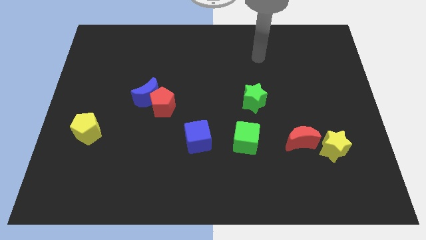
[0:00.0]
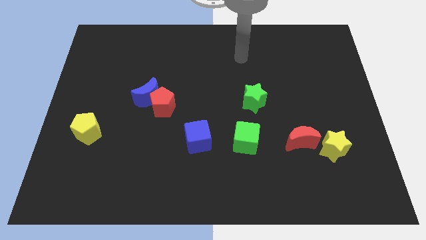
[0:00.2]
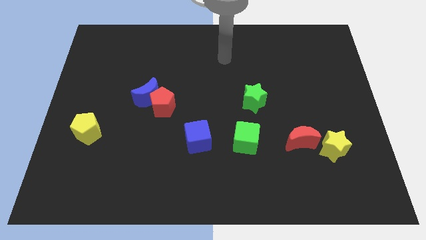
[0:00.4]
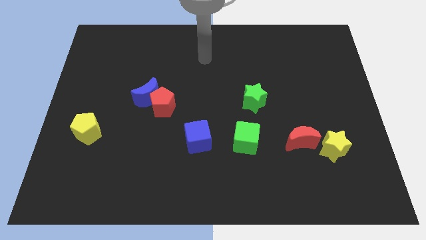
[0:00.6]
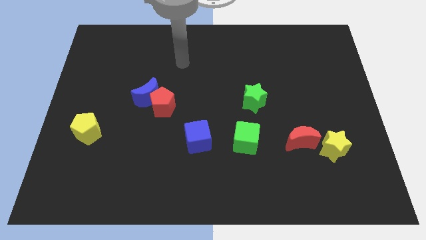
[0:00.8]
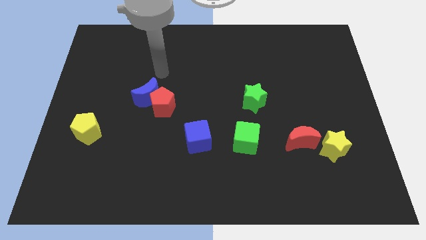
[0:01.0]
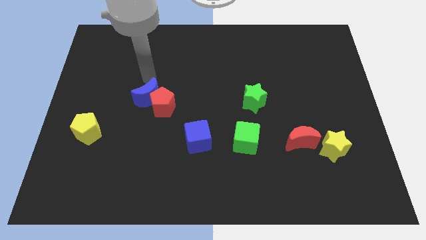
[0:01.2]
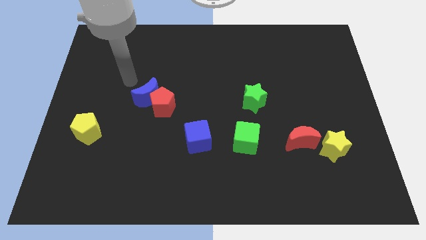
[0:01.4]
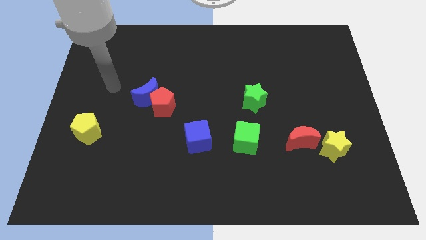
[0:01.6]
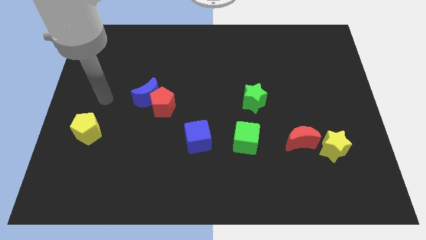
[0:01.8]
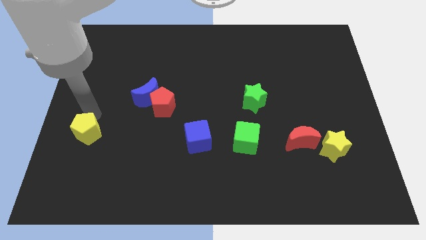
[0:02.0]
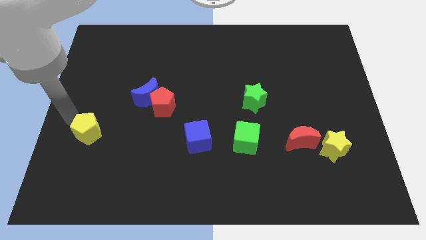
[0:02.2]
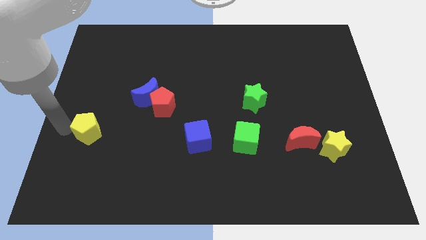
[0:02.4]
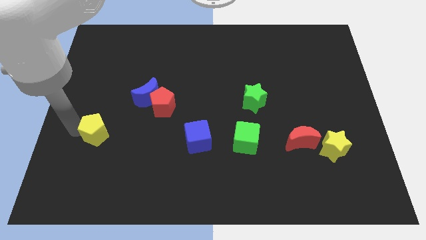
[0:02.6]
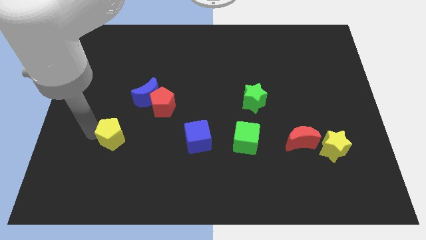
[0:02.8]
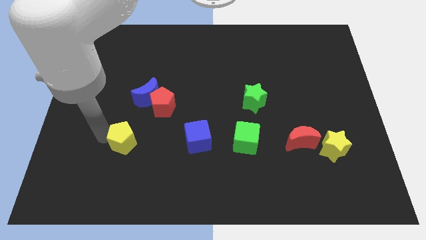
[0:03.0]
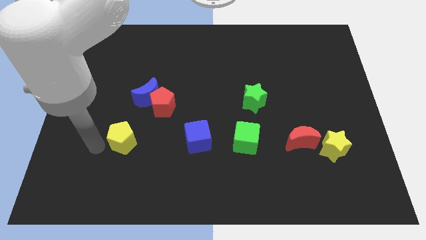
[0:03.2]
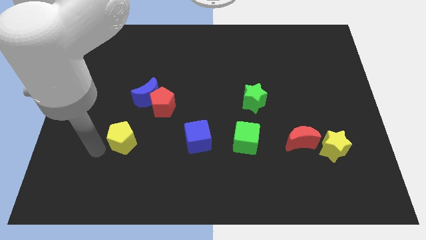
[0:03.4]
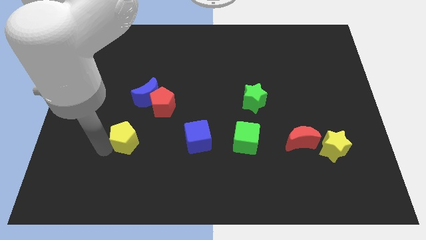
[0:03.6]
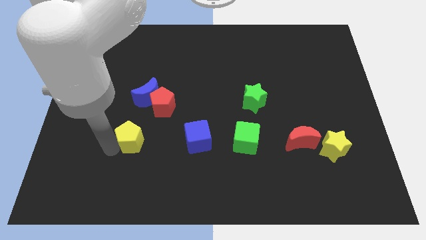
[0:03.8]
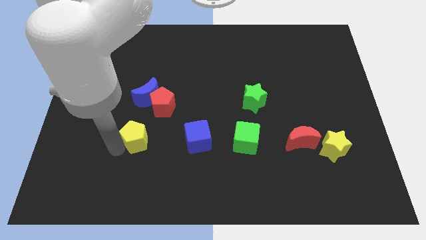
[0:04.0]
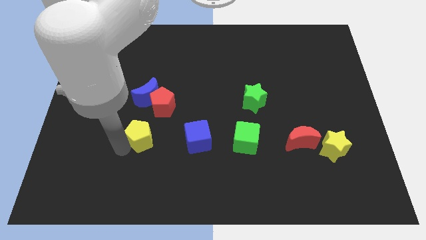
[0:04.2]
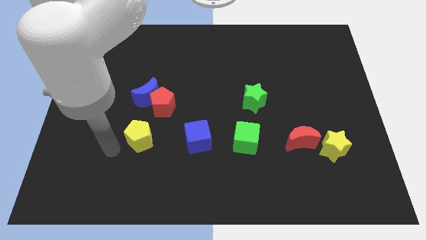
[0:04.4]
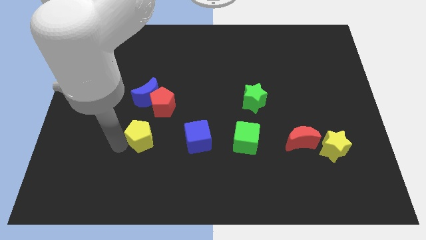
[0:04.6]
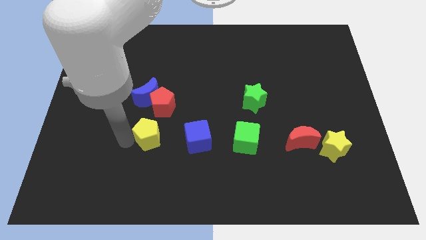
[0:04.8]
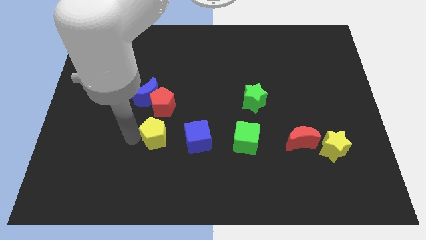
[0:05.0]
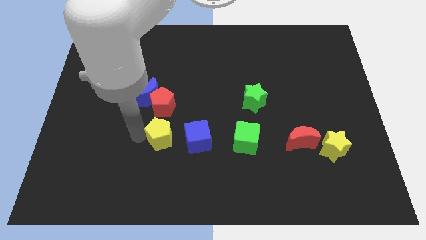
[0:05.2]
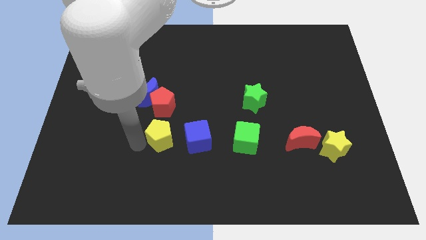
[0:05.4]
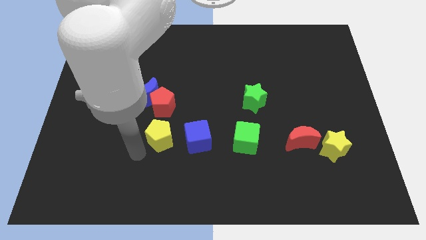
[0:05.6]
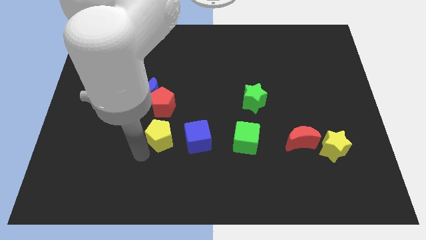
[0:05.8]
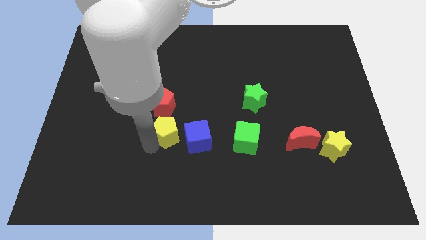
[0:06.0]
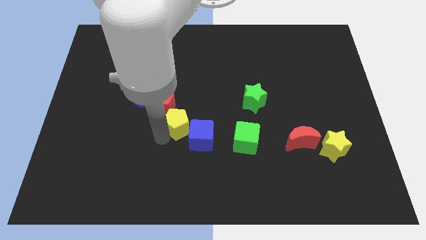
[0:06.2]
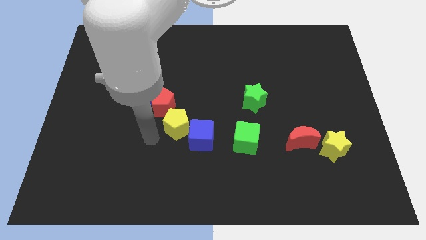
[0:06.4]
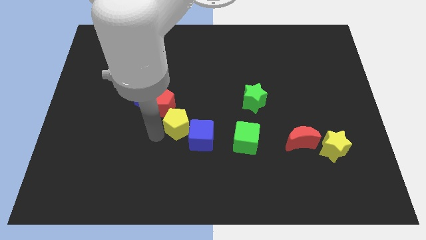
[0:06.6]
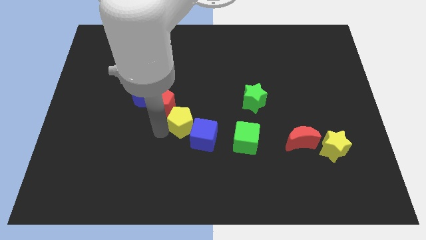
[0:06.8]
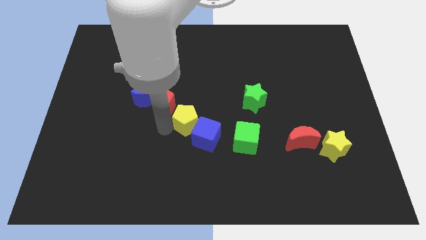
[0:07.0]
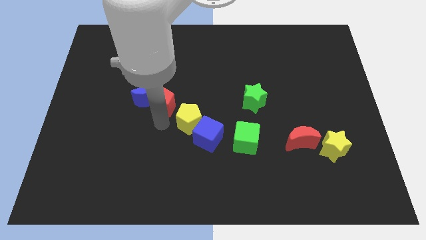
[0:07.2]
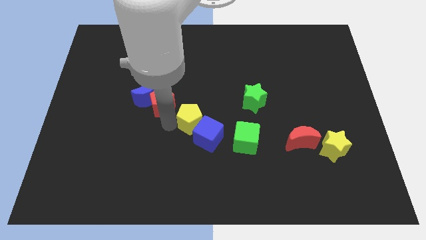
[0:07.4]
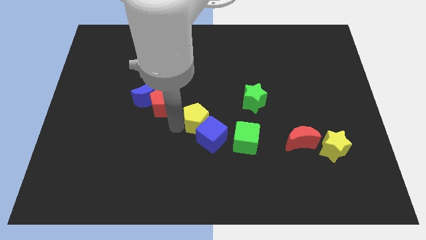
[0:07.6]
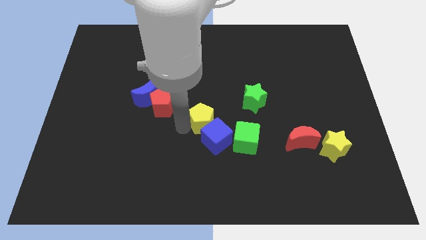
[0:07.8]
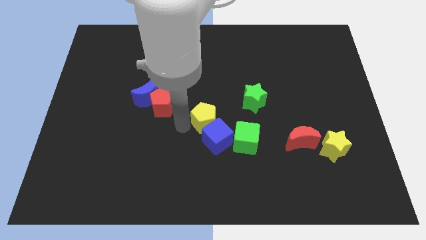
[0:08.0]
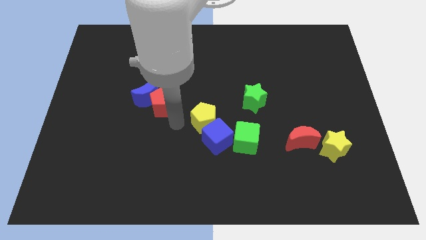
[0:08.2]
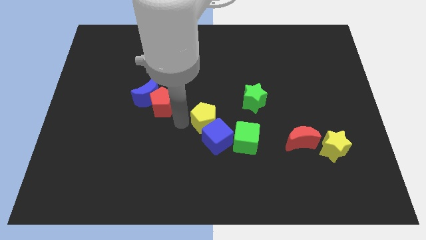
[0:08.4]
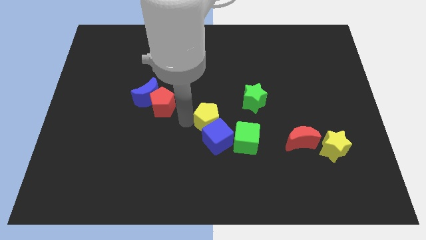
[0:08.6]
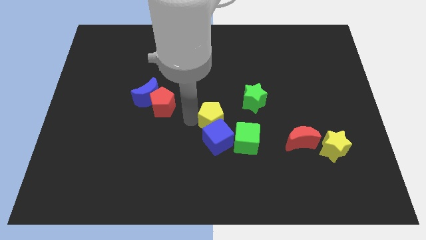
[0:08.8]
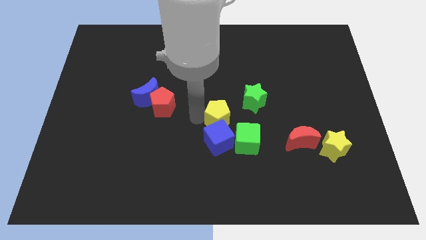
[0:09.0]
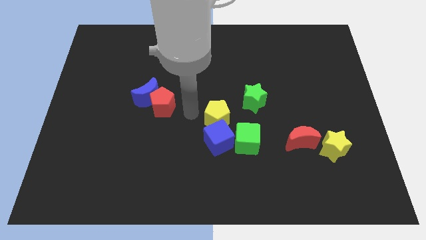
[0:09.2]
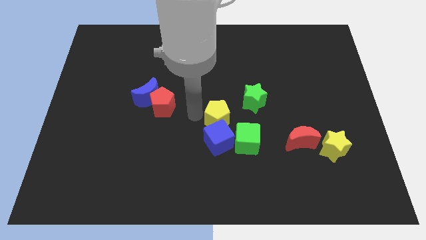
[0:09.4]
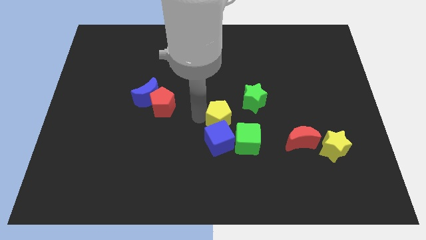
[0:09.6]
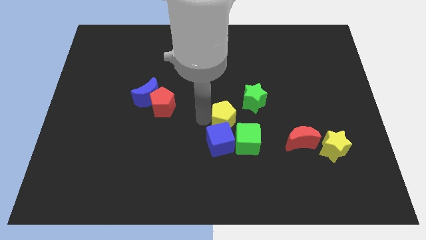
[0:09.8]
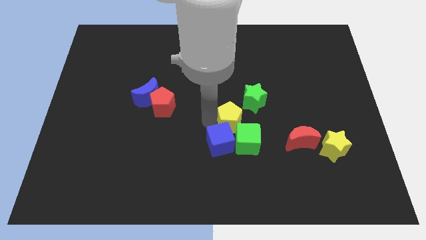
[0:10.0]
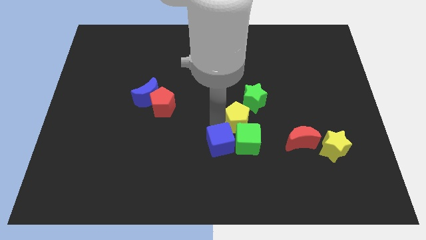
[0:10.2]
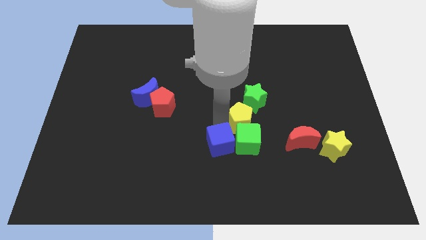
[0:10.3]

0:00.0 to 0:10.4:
push the yellow pentagon diagonally up and to the right of the green cube

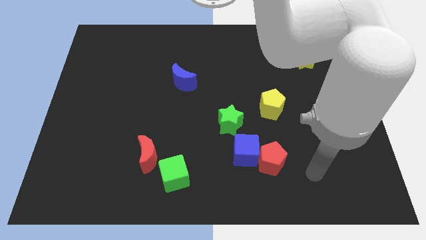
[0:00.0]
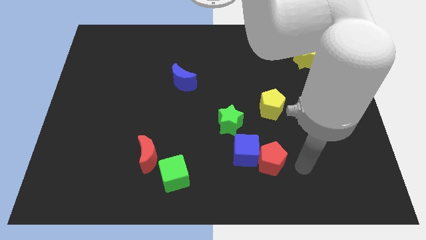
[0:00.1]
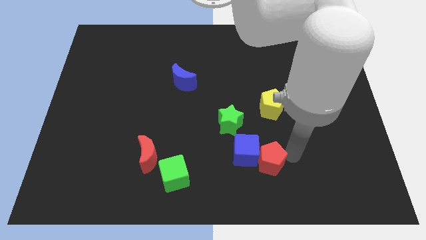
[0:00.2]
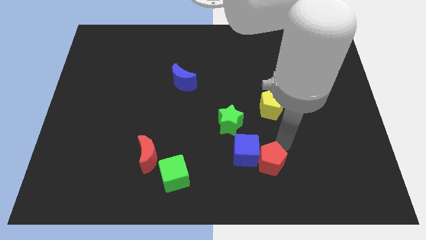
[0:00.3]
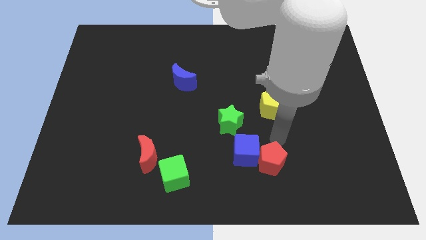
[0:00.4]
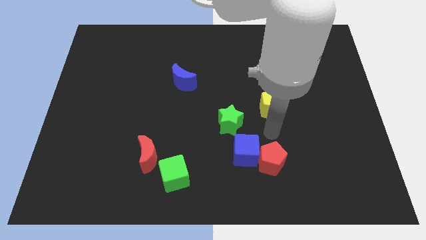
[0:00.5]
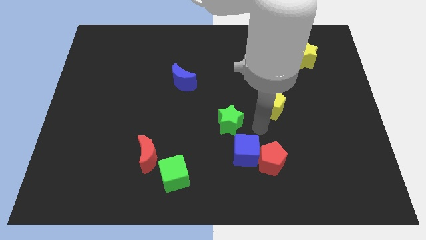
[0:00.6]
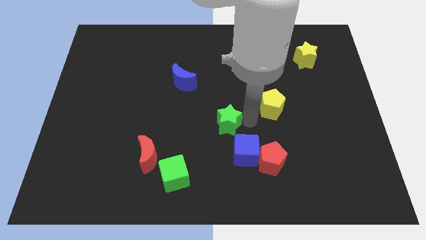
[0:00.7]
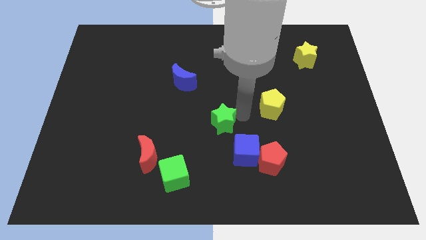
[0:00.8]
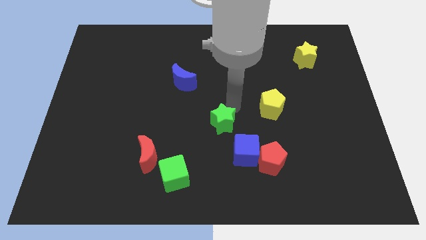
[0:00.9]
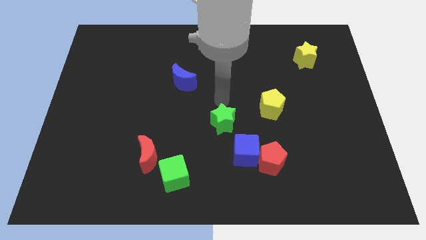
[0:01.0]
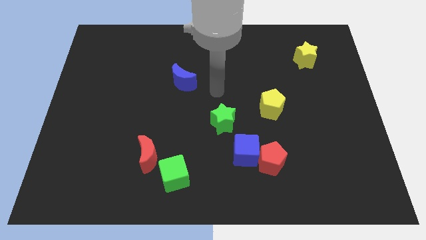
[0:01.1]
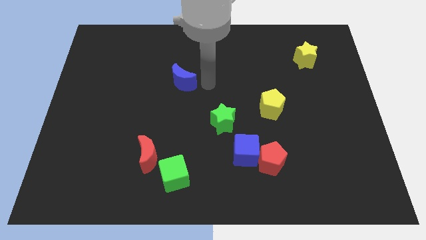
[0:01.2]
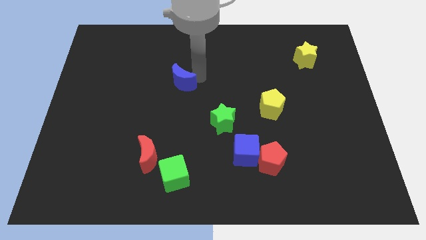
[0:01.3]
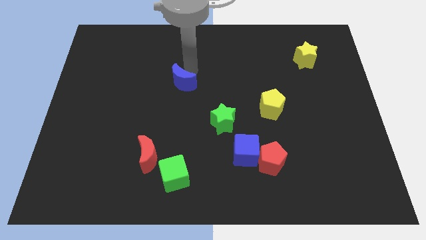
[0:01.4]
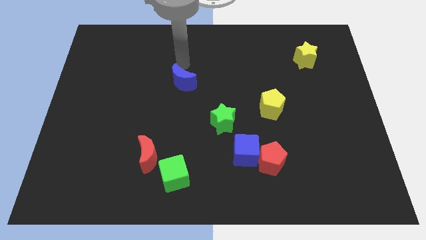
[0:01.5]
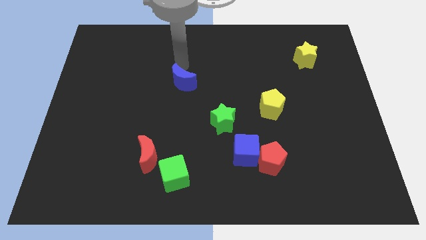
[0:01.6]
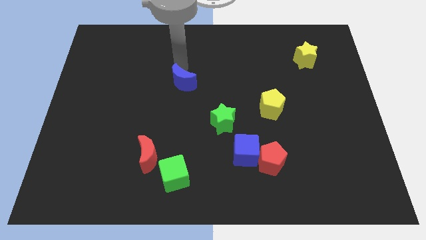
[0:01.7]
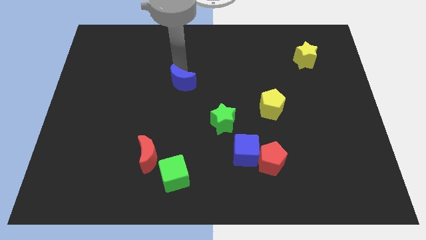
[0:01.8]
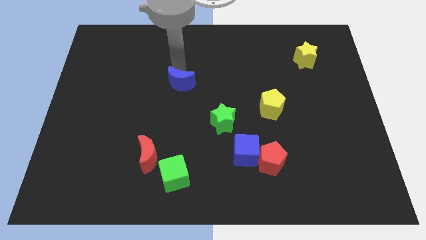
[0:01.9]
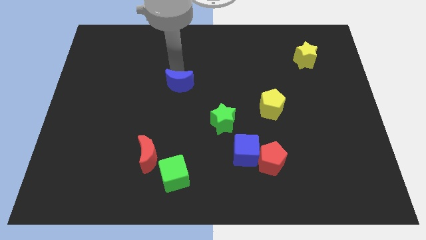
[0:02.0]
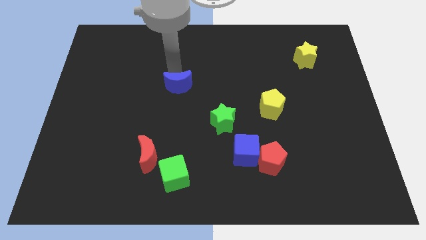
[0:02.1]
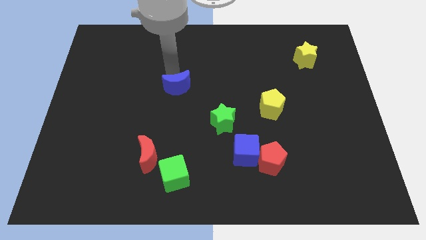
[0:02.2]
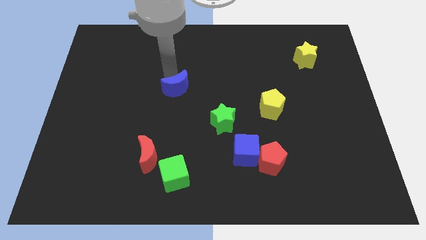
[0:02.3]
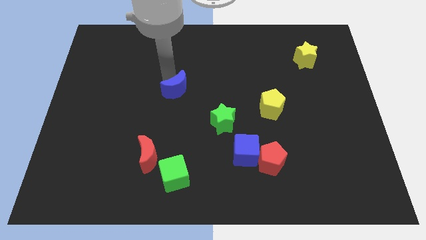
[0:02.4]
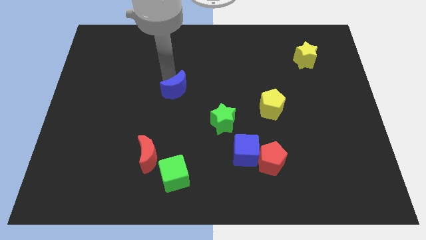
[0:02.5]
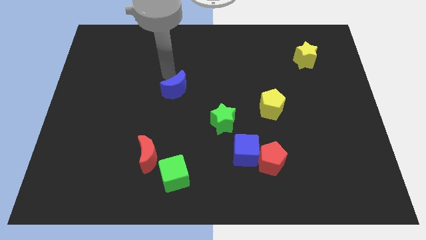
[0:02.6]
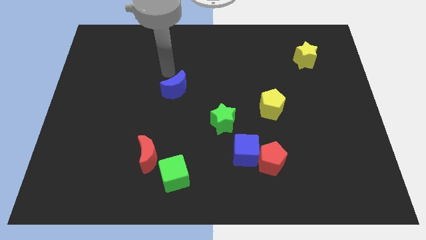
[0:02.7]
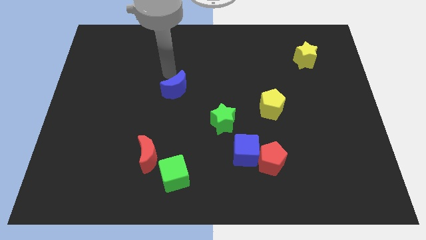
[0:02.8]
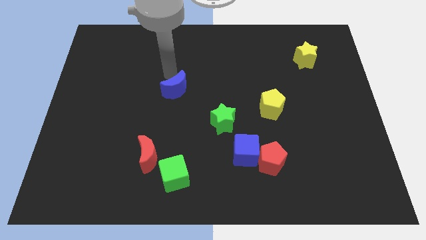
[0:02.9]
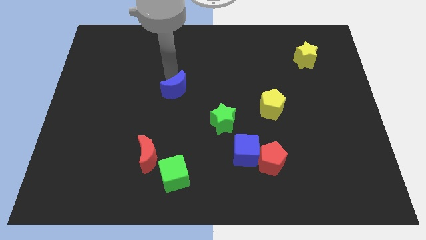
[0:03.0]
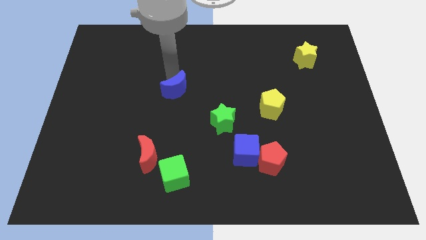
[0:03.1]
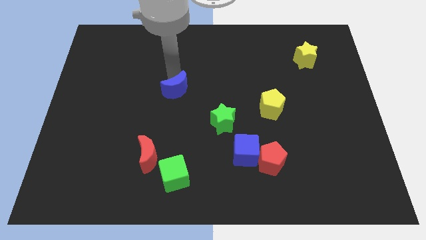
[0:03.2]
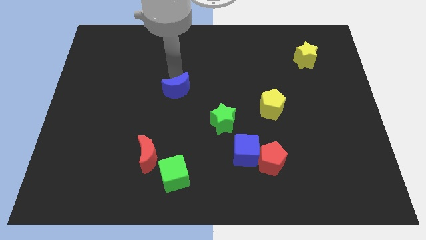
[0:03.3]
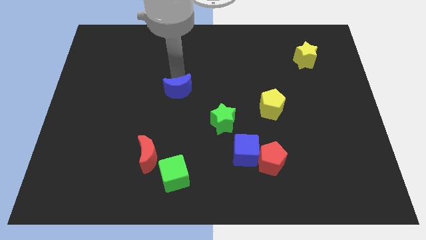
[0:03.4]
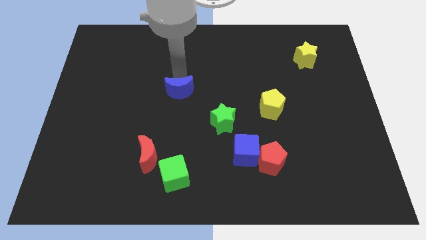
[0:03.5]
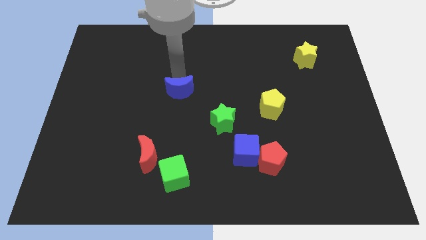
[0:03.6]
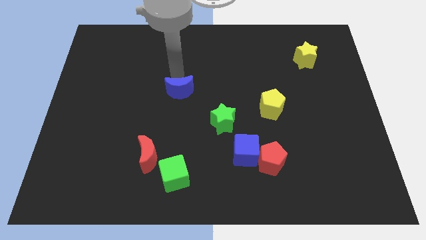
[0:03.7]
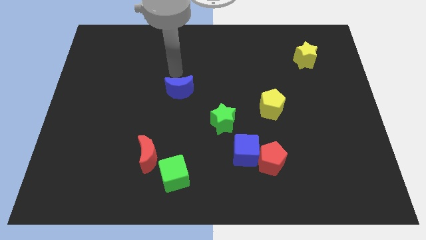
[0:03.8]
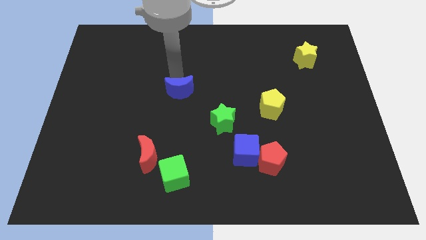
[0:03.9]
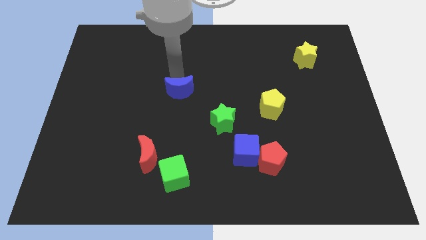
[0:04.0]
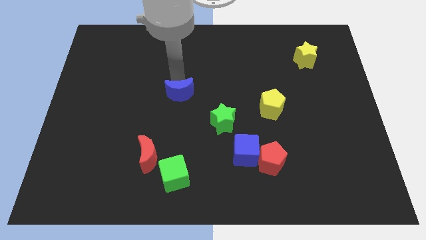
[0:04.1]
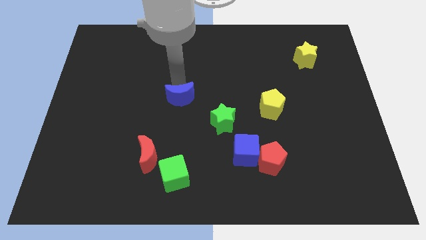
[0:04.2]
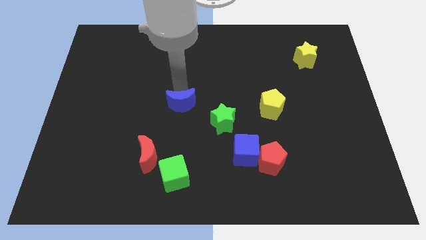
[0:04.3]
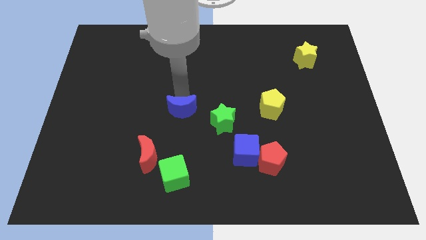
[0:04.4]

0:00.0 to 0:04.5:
move the blue moon left of the green star
